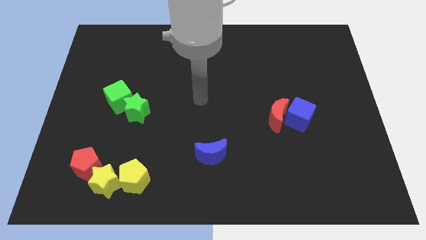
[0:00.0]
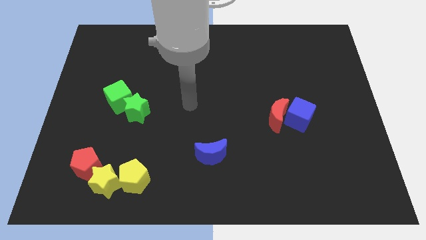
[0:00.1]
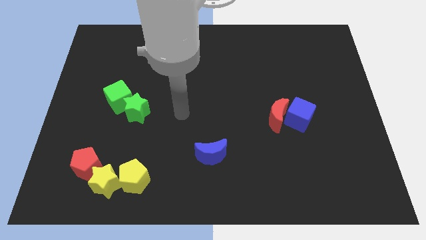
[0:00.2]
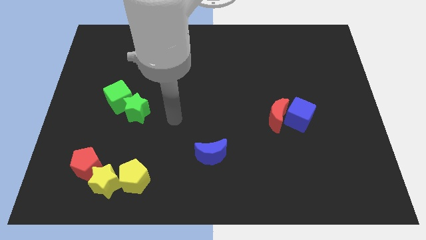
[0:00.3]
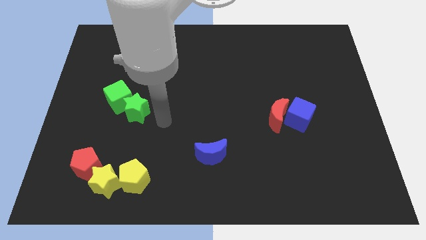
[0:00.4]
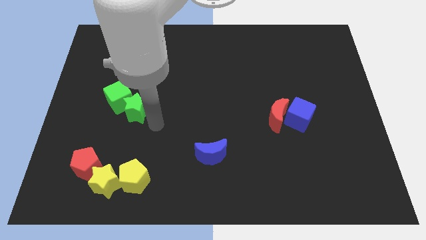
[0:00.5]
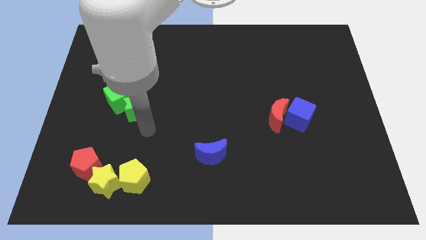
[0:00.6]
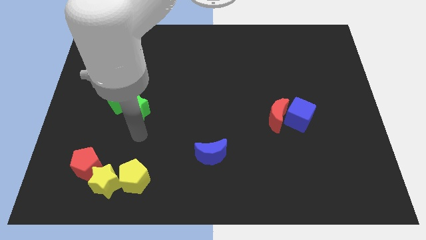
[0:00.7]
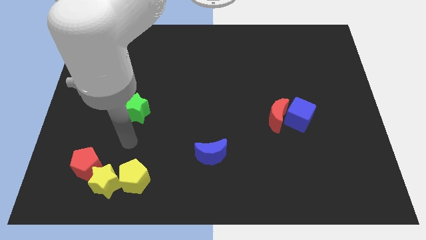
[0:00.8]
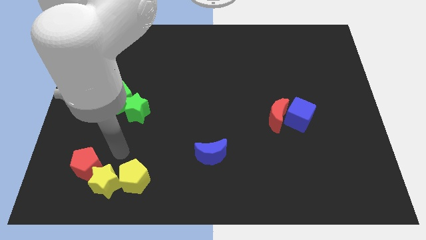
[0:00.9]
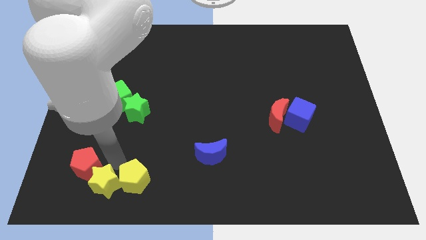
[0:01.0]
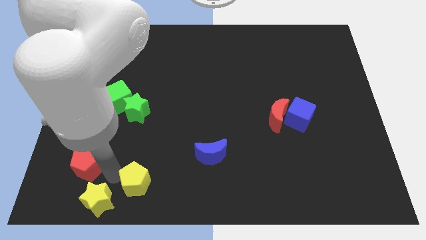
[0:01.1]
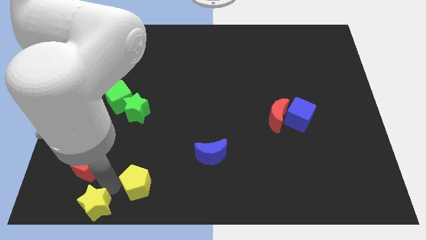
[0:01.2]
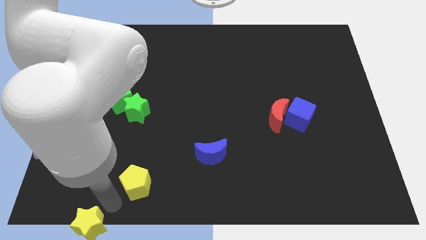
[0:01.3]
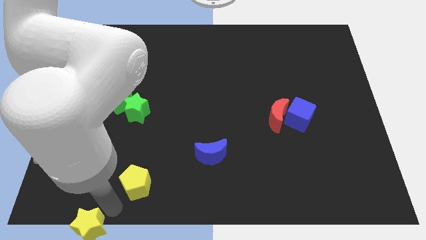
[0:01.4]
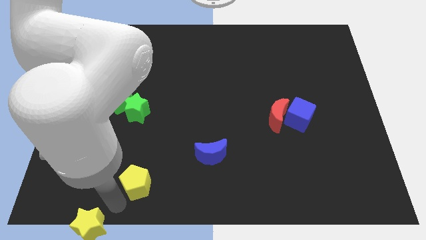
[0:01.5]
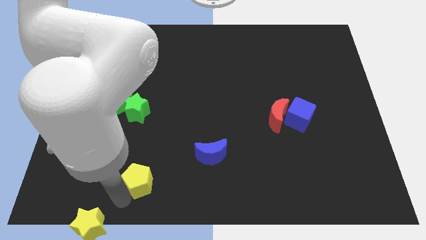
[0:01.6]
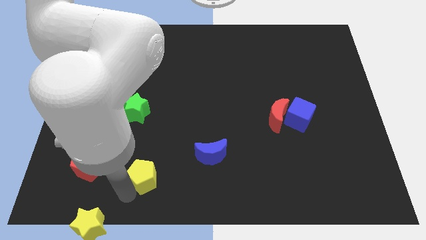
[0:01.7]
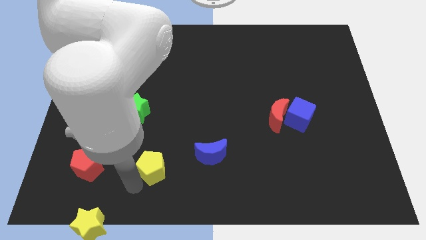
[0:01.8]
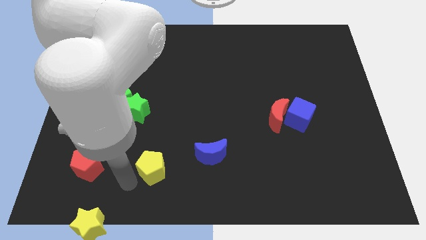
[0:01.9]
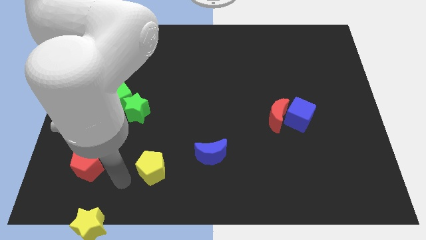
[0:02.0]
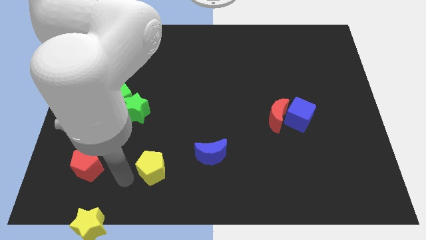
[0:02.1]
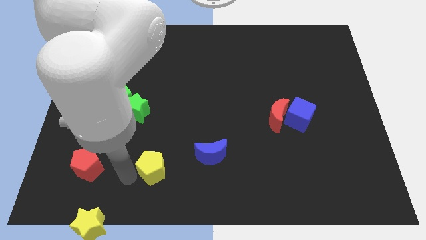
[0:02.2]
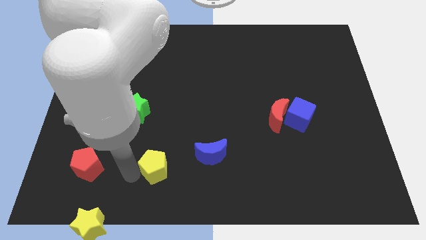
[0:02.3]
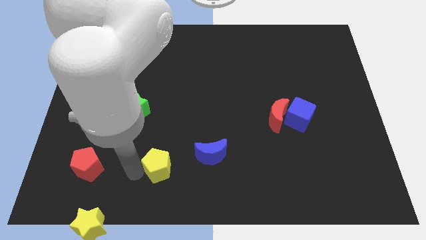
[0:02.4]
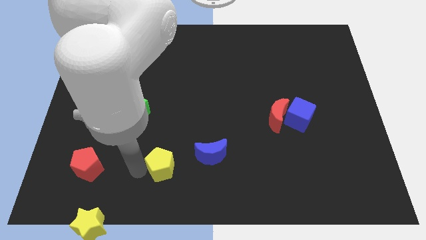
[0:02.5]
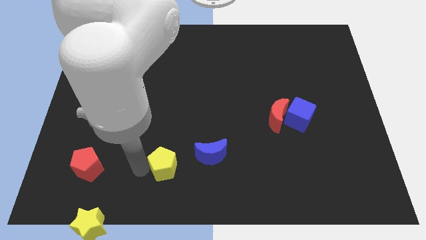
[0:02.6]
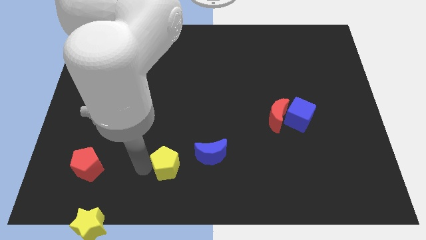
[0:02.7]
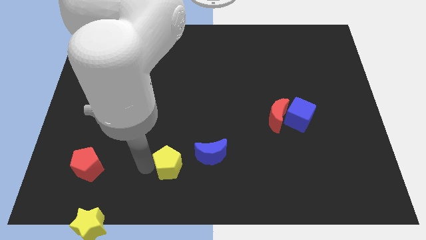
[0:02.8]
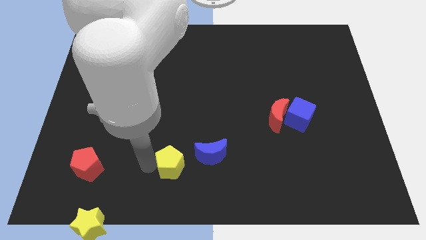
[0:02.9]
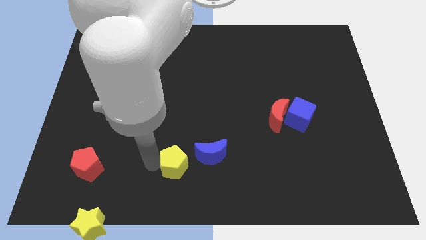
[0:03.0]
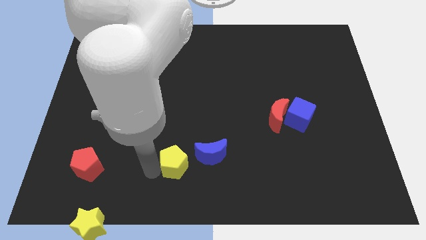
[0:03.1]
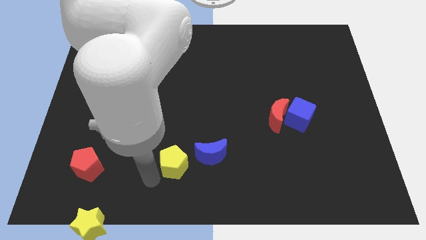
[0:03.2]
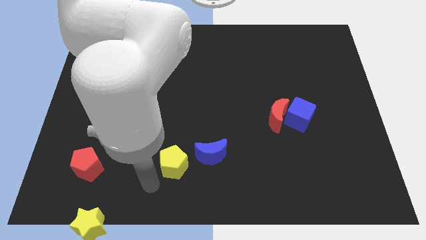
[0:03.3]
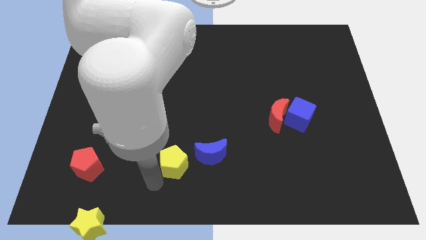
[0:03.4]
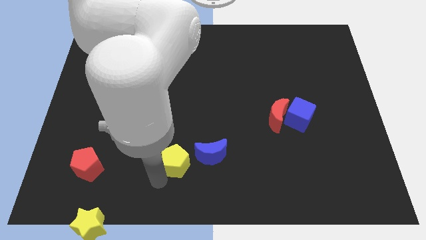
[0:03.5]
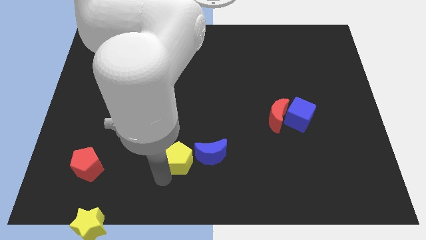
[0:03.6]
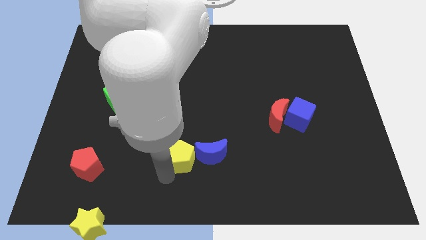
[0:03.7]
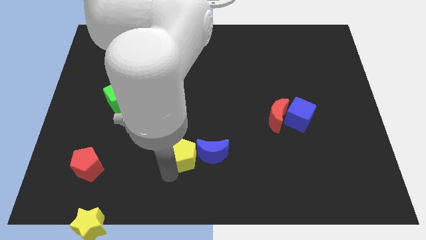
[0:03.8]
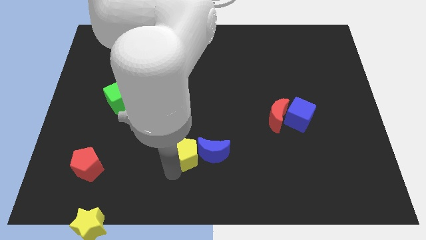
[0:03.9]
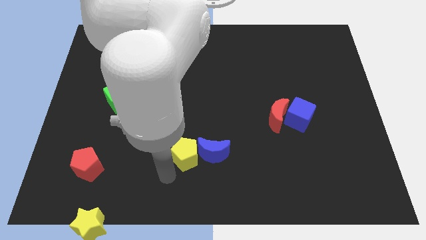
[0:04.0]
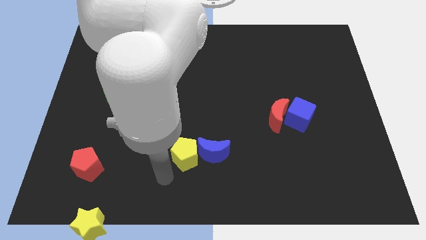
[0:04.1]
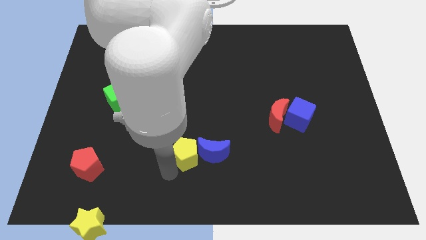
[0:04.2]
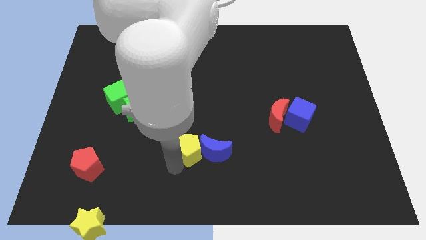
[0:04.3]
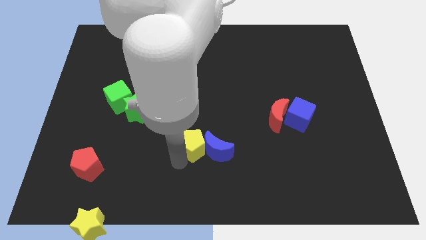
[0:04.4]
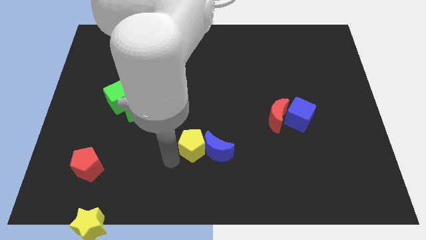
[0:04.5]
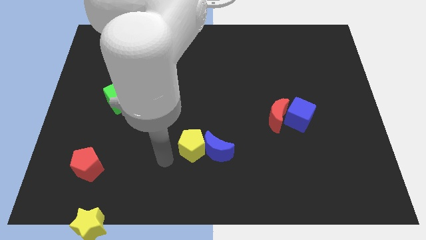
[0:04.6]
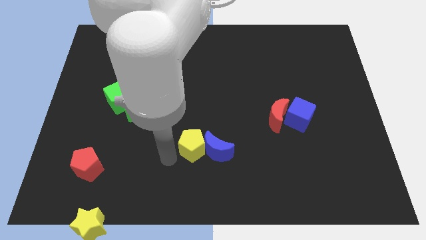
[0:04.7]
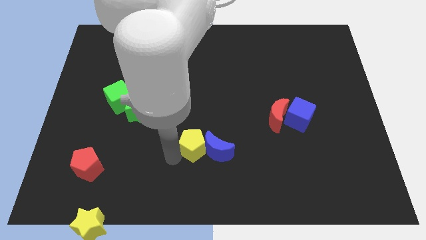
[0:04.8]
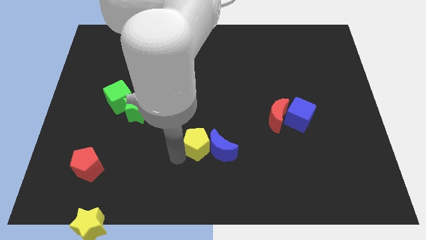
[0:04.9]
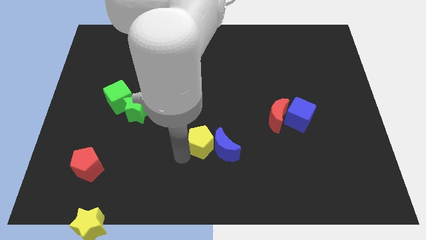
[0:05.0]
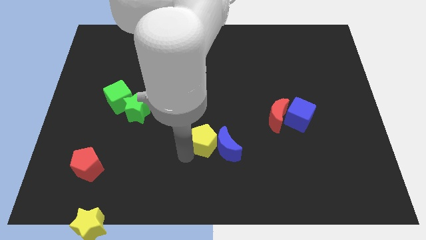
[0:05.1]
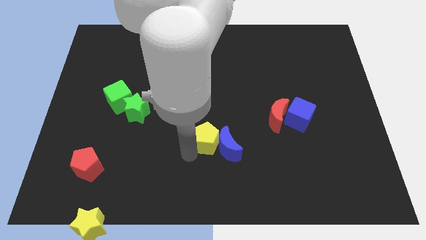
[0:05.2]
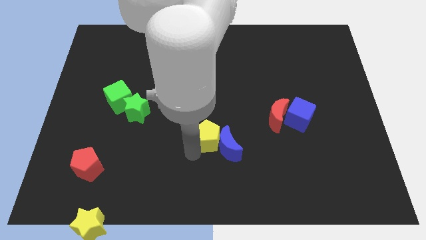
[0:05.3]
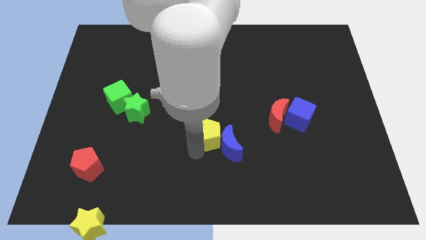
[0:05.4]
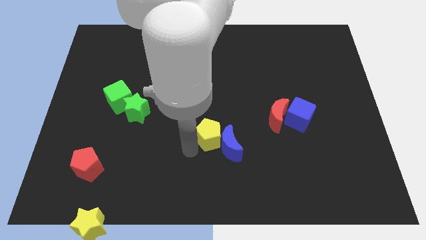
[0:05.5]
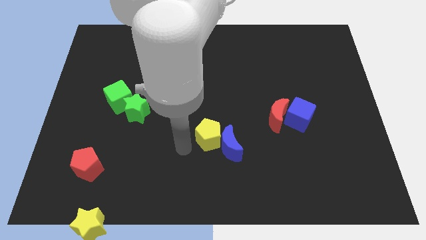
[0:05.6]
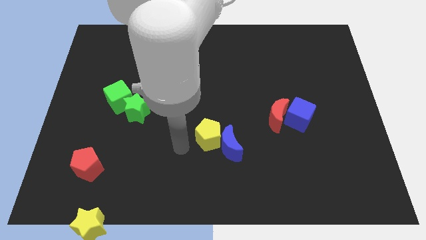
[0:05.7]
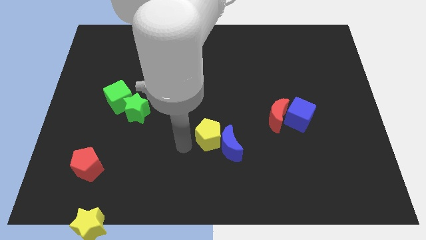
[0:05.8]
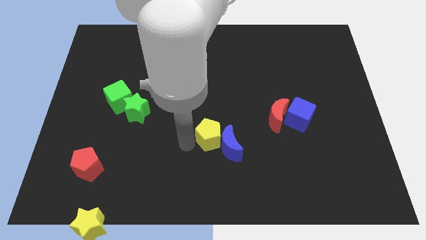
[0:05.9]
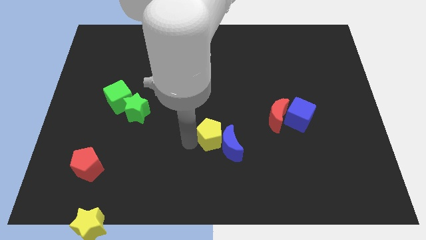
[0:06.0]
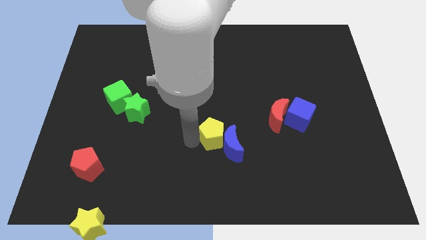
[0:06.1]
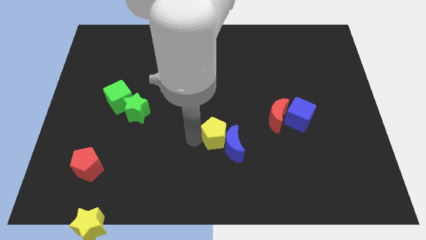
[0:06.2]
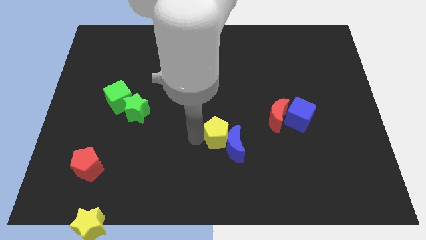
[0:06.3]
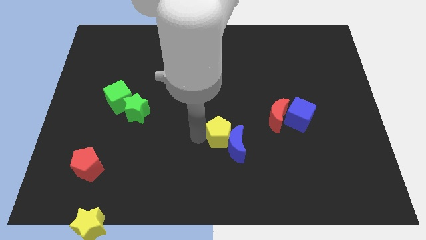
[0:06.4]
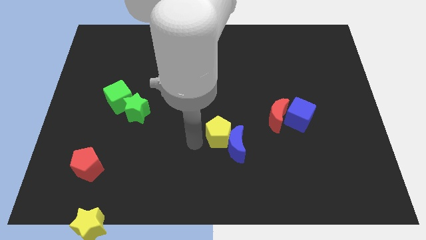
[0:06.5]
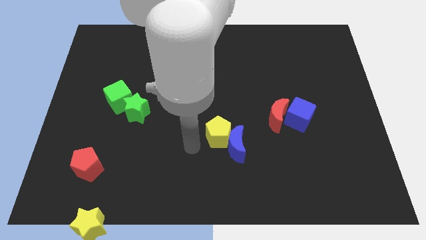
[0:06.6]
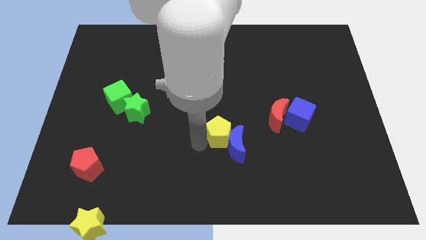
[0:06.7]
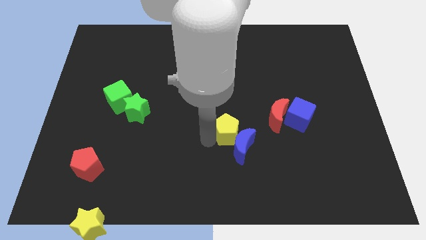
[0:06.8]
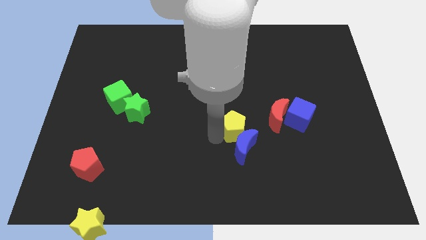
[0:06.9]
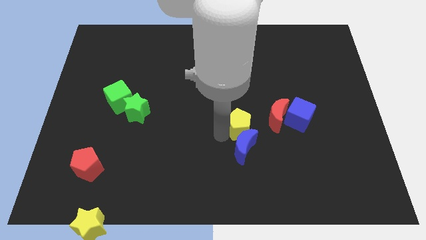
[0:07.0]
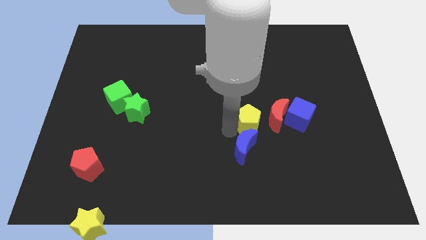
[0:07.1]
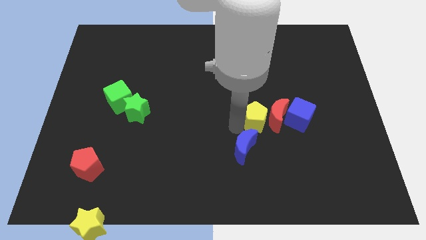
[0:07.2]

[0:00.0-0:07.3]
move the yellow pentagon to the red moon
